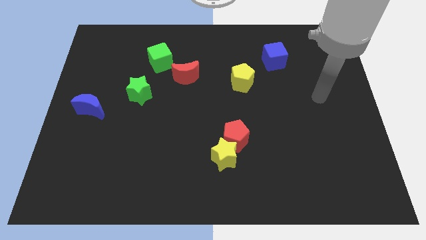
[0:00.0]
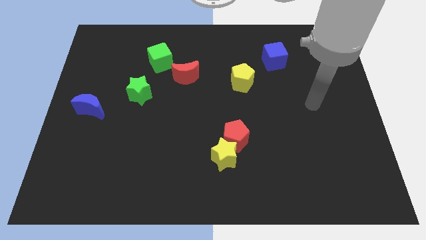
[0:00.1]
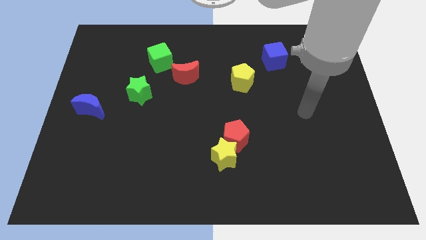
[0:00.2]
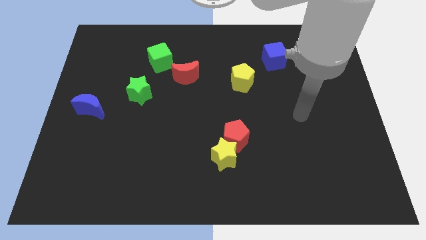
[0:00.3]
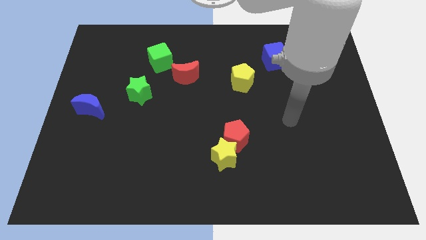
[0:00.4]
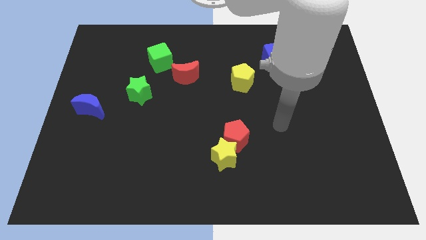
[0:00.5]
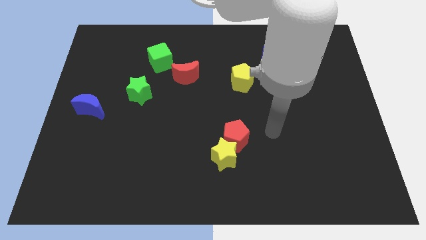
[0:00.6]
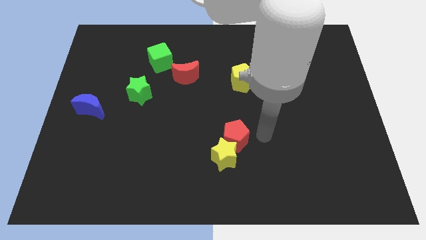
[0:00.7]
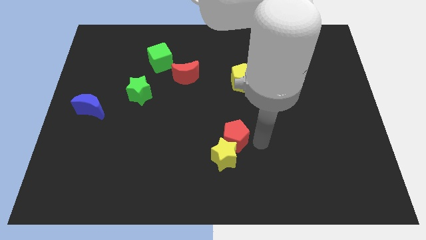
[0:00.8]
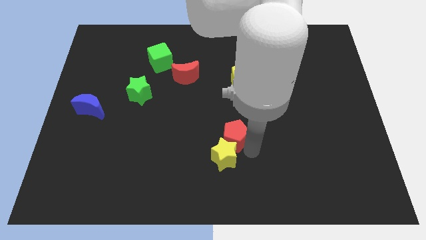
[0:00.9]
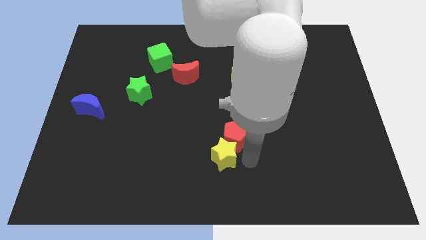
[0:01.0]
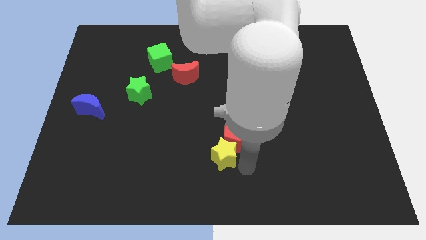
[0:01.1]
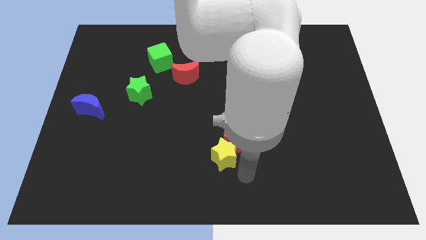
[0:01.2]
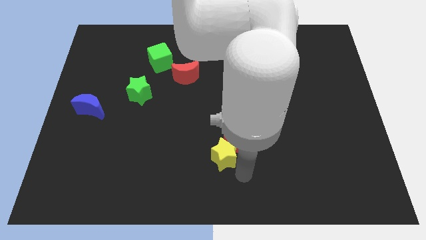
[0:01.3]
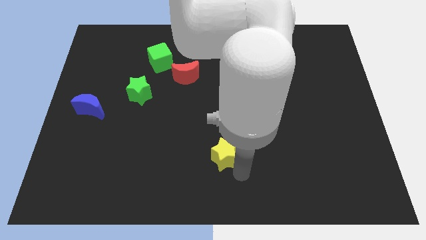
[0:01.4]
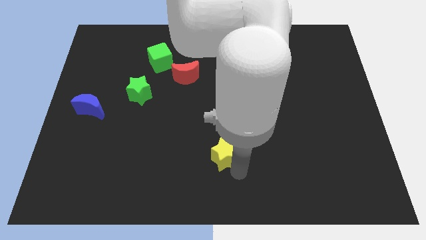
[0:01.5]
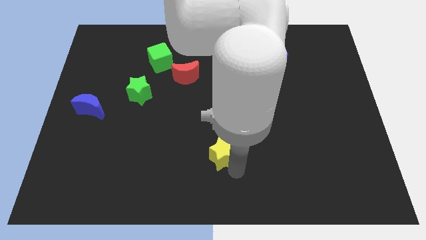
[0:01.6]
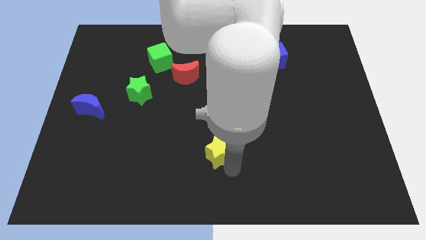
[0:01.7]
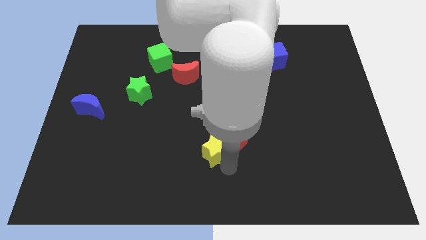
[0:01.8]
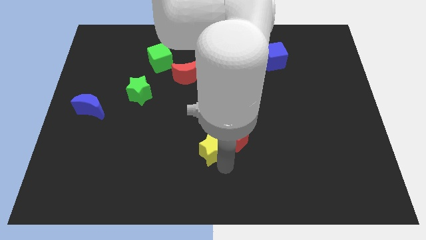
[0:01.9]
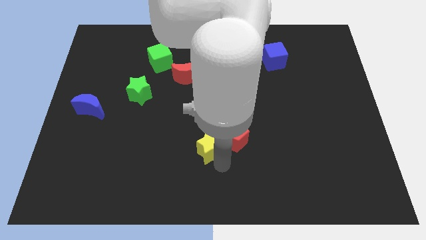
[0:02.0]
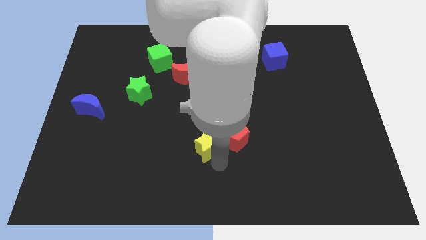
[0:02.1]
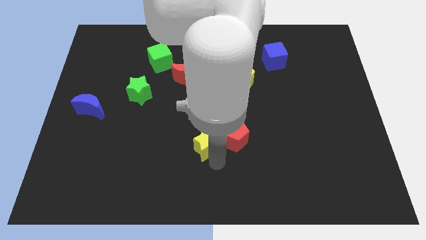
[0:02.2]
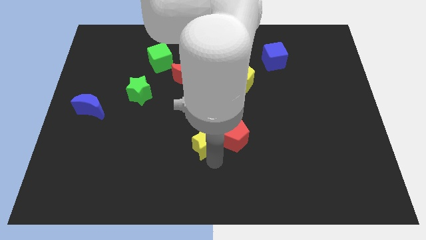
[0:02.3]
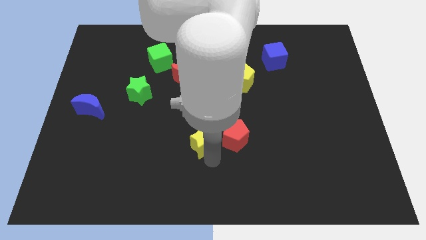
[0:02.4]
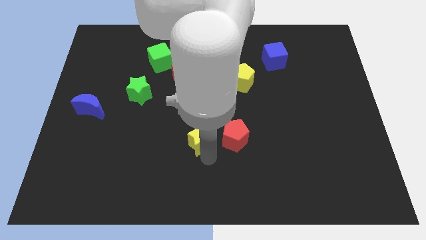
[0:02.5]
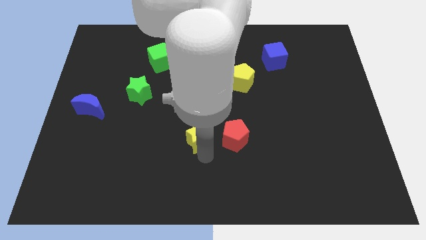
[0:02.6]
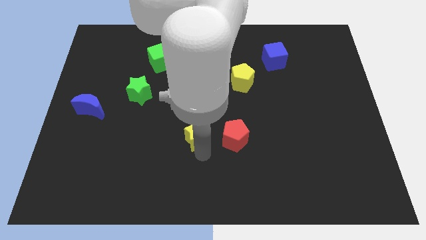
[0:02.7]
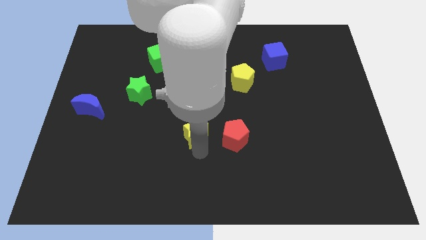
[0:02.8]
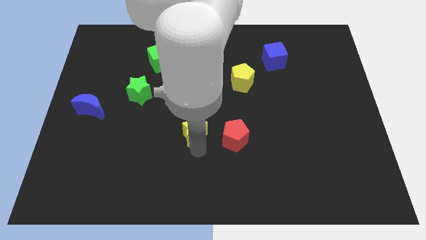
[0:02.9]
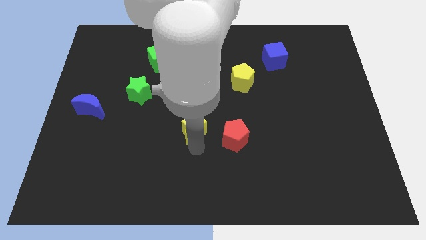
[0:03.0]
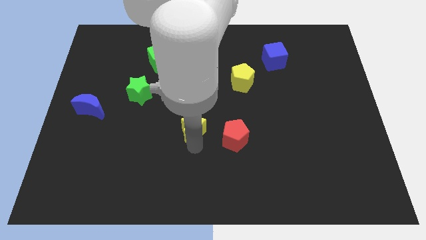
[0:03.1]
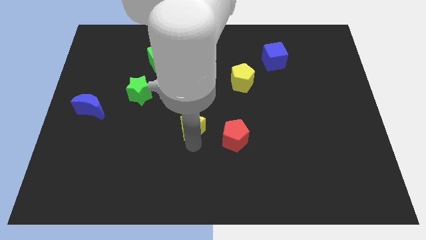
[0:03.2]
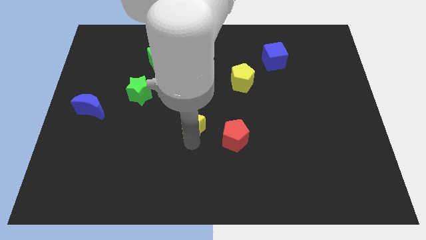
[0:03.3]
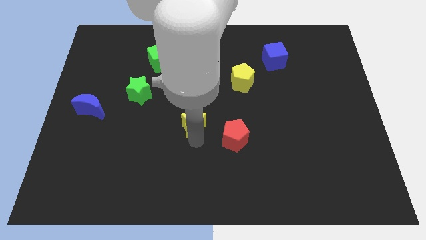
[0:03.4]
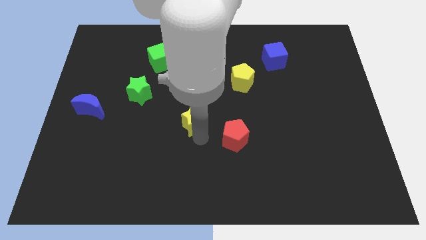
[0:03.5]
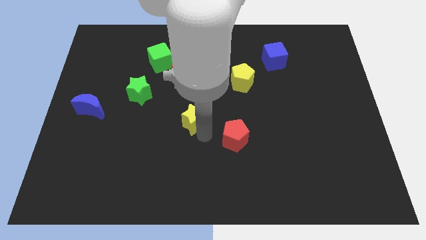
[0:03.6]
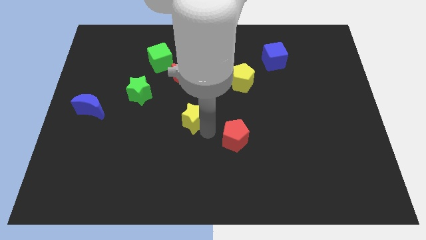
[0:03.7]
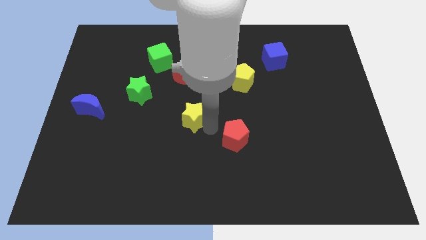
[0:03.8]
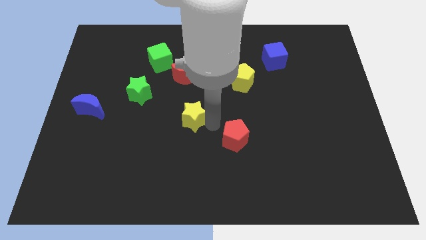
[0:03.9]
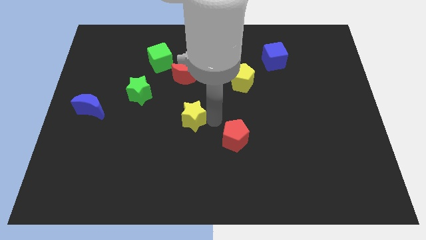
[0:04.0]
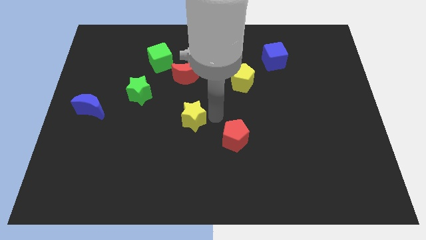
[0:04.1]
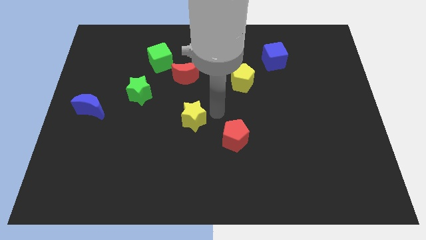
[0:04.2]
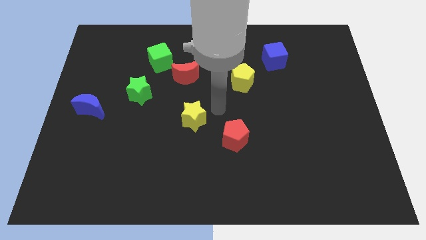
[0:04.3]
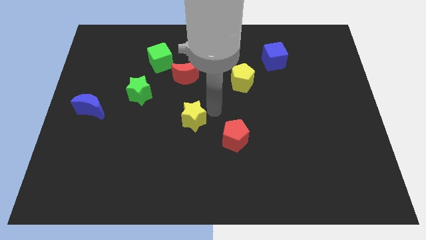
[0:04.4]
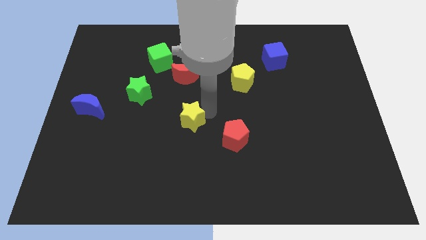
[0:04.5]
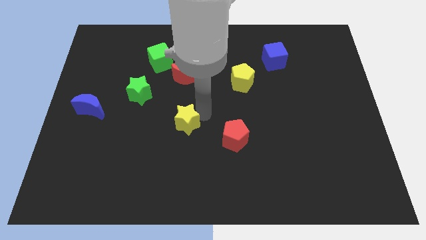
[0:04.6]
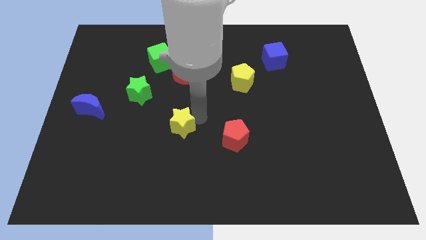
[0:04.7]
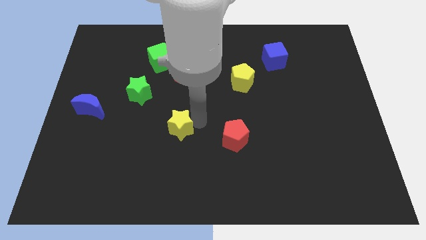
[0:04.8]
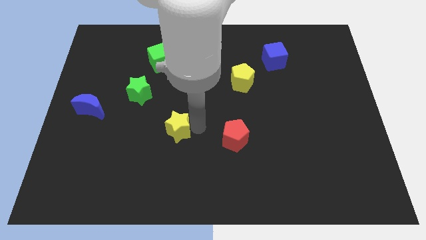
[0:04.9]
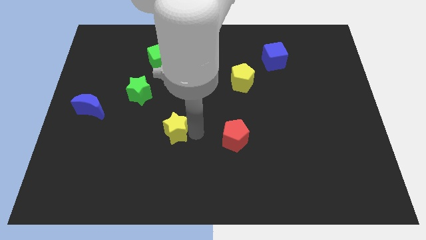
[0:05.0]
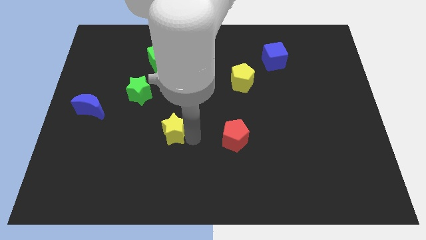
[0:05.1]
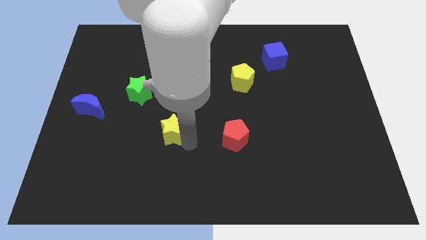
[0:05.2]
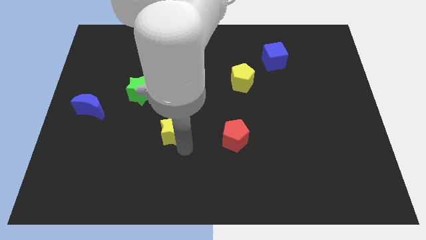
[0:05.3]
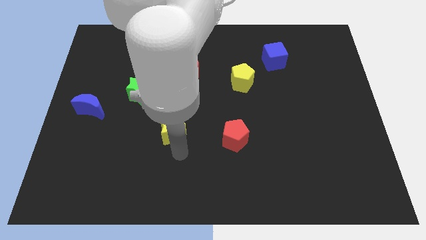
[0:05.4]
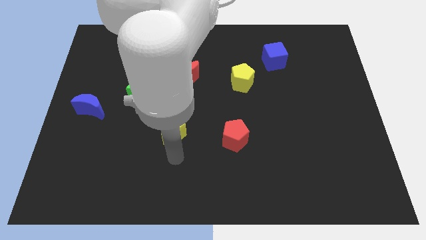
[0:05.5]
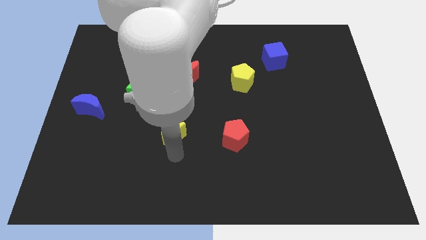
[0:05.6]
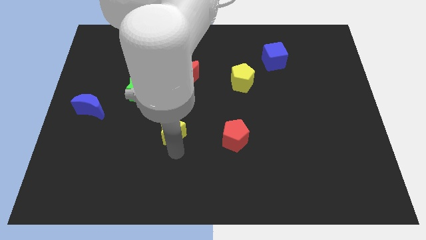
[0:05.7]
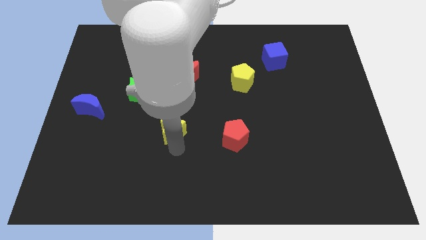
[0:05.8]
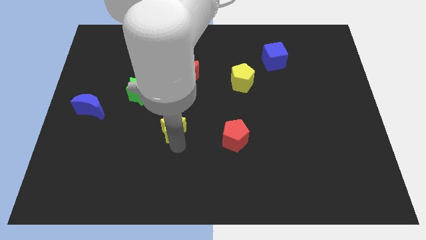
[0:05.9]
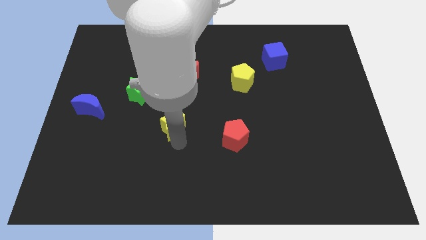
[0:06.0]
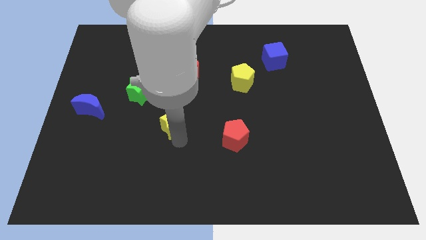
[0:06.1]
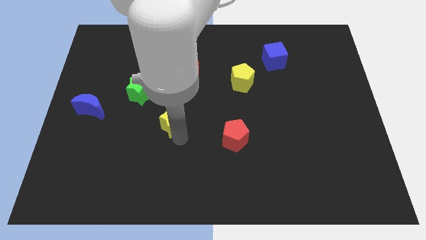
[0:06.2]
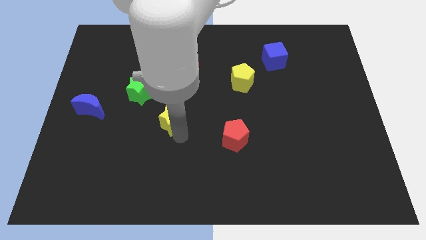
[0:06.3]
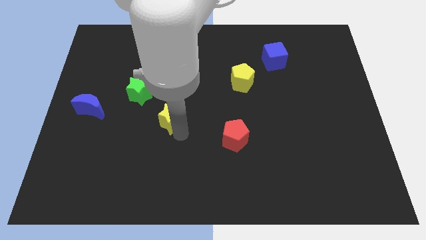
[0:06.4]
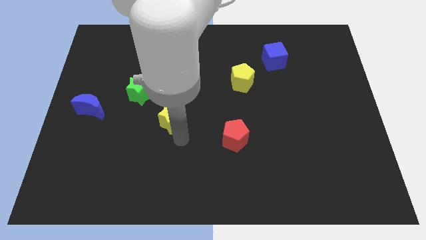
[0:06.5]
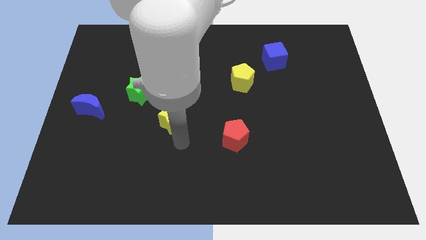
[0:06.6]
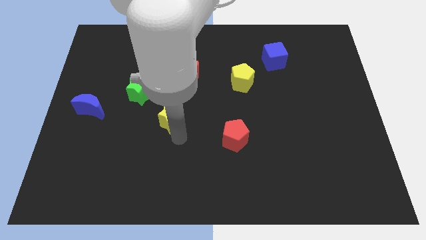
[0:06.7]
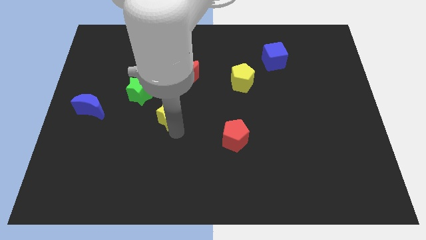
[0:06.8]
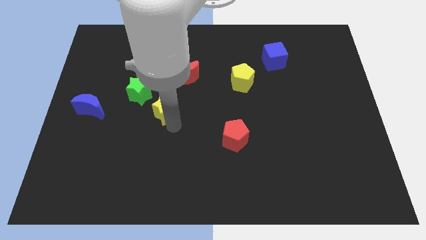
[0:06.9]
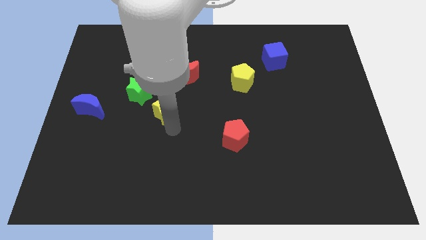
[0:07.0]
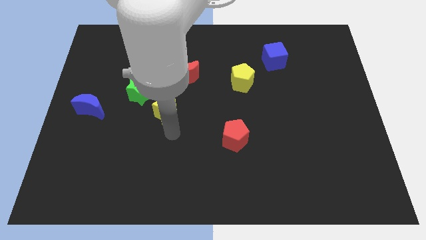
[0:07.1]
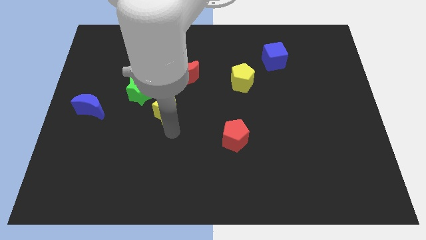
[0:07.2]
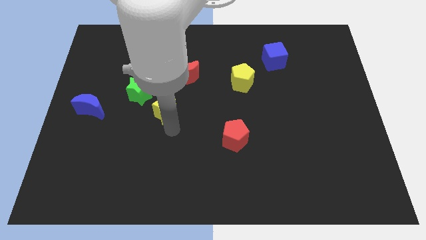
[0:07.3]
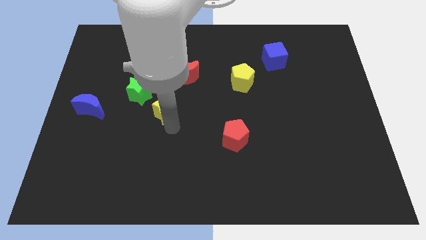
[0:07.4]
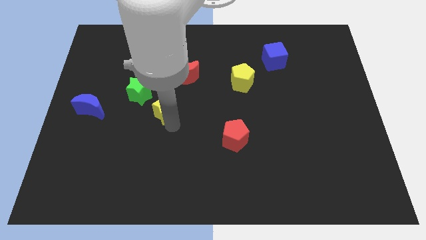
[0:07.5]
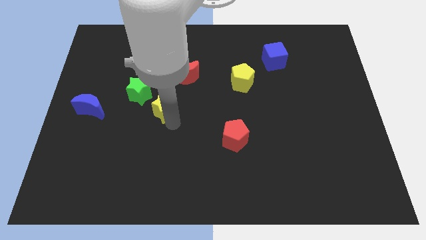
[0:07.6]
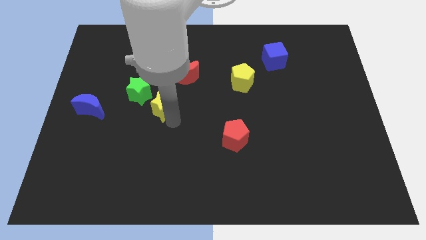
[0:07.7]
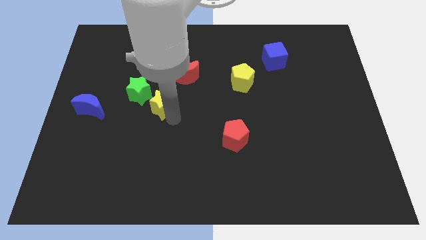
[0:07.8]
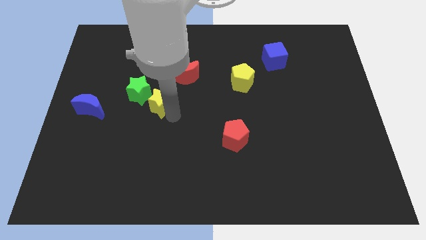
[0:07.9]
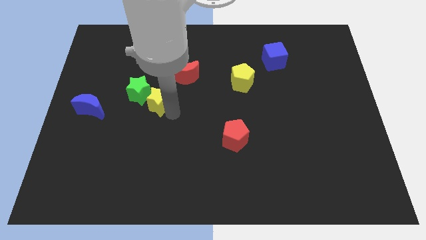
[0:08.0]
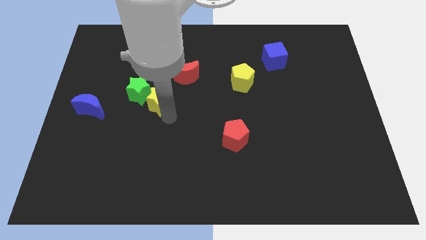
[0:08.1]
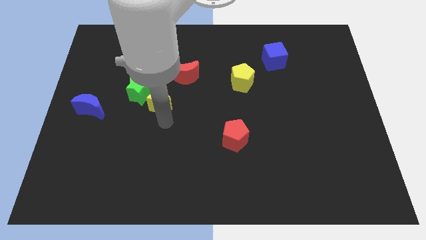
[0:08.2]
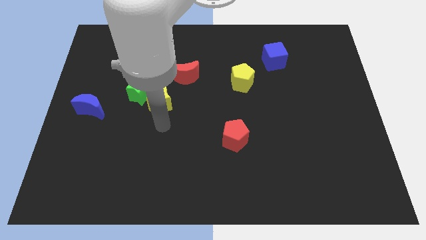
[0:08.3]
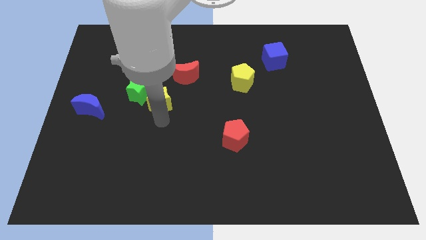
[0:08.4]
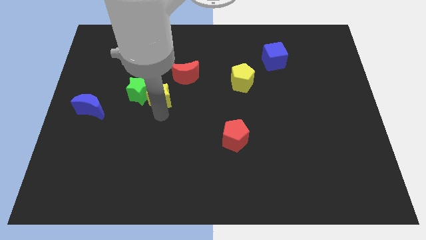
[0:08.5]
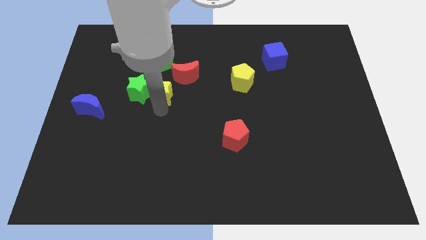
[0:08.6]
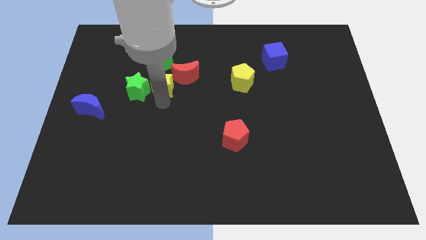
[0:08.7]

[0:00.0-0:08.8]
put the yellow star to the left of the red moon
